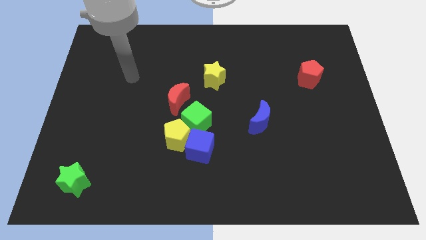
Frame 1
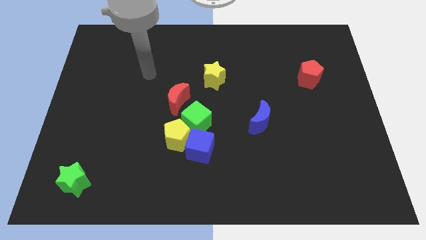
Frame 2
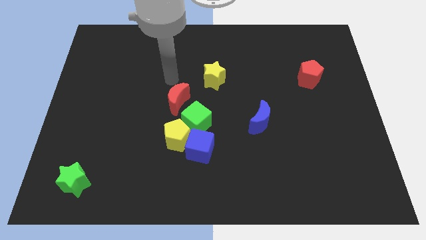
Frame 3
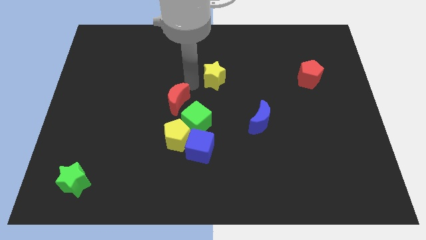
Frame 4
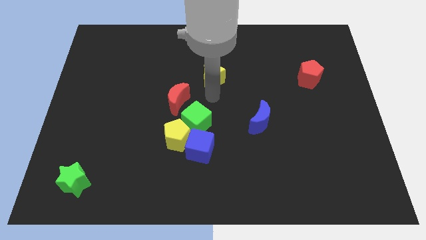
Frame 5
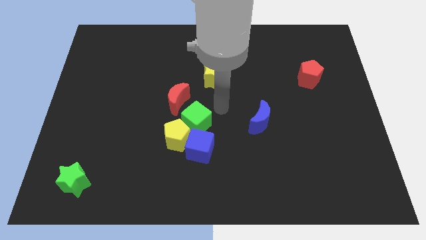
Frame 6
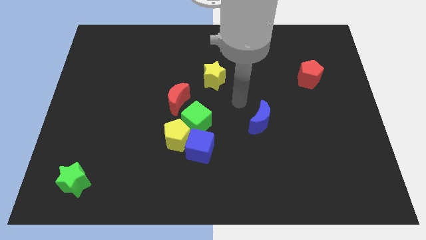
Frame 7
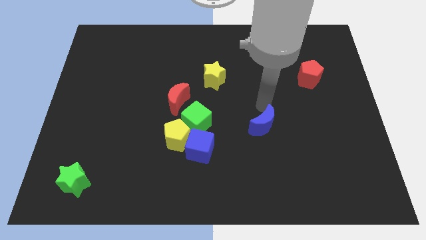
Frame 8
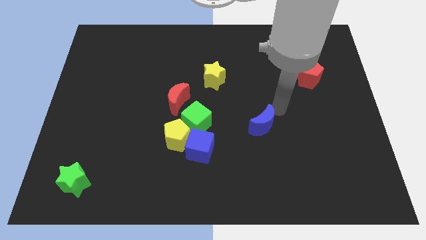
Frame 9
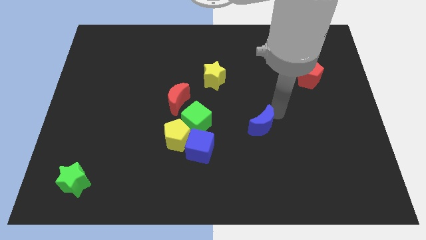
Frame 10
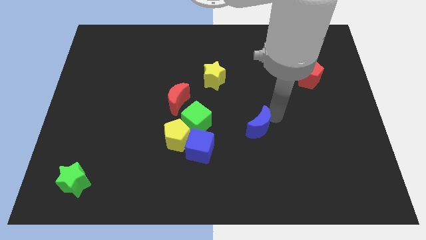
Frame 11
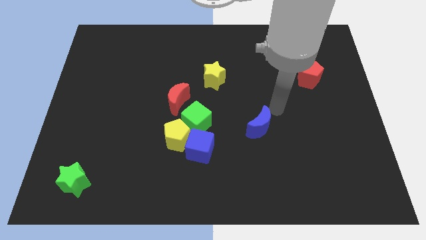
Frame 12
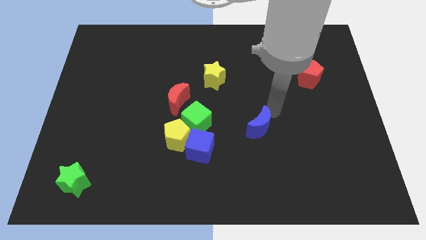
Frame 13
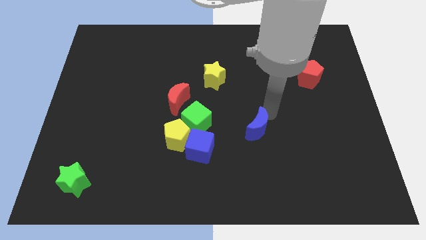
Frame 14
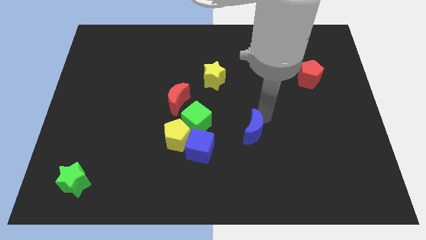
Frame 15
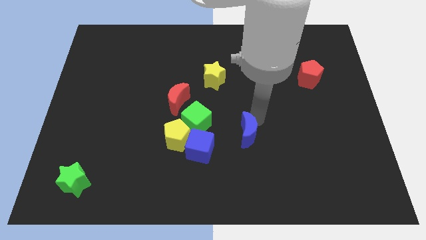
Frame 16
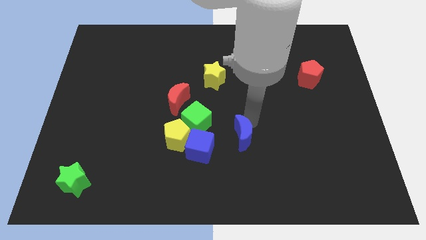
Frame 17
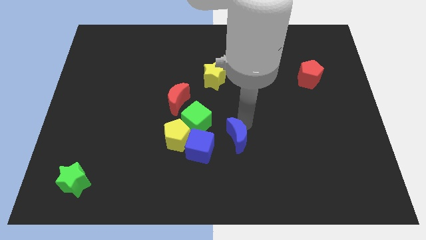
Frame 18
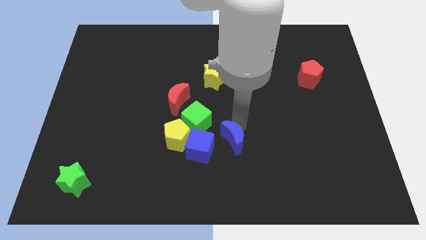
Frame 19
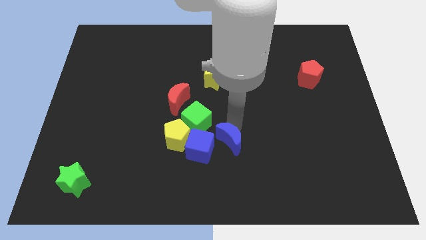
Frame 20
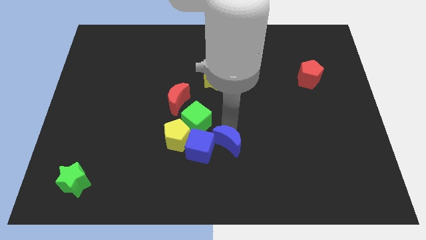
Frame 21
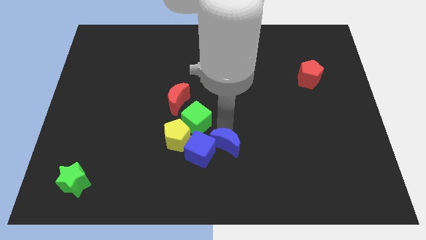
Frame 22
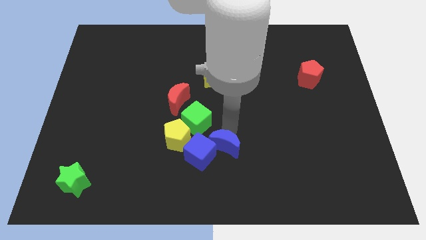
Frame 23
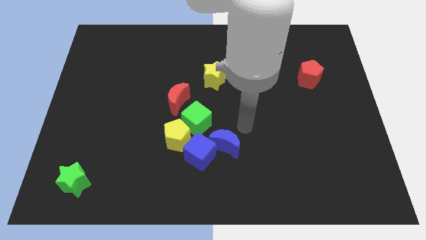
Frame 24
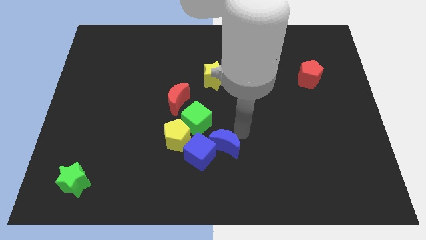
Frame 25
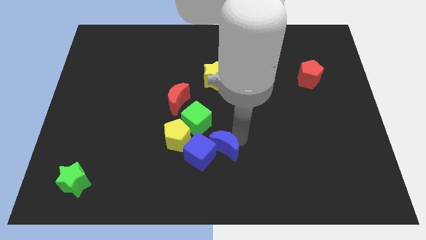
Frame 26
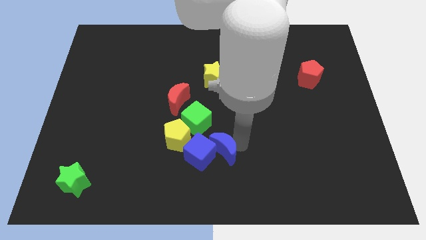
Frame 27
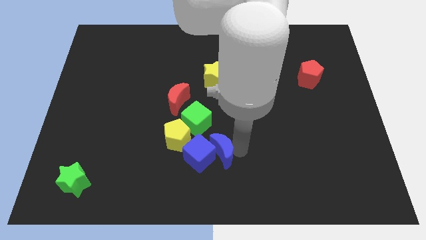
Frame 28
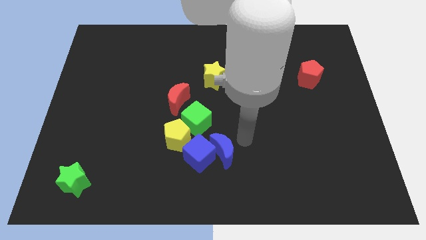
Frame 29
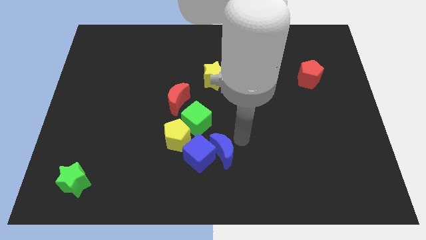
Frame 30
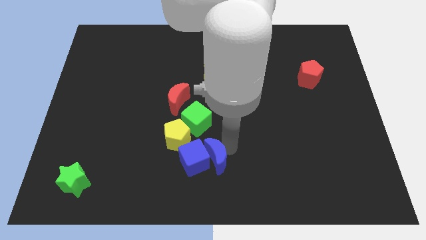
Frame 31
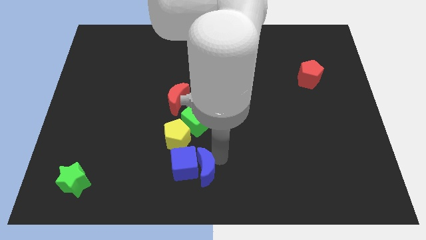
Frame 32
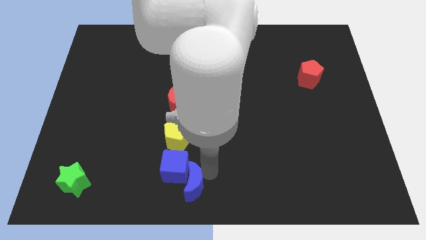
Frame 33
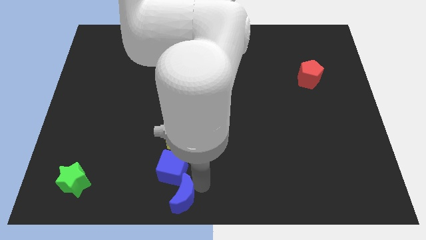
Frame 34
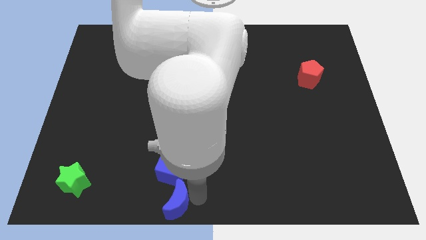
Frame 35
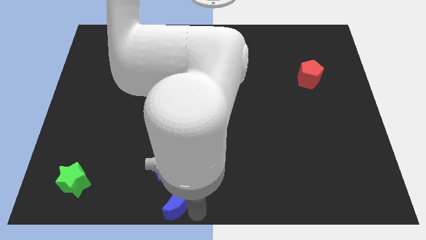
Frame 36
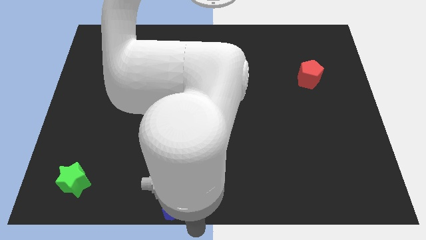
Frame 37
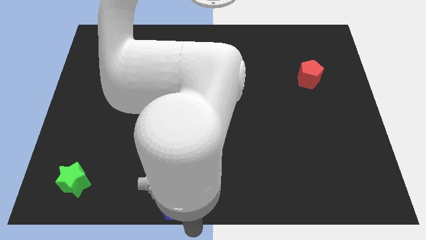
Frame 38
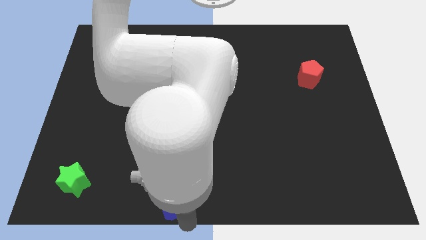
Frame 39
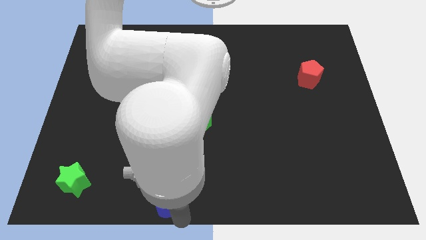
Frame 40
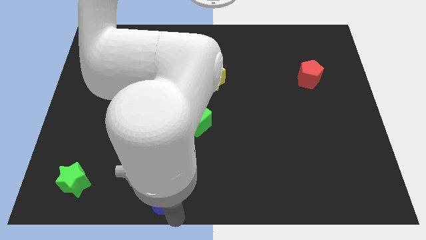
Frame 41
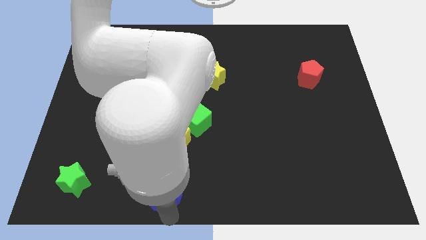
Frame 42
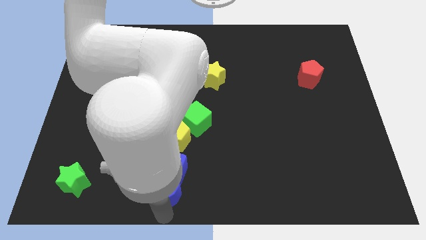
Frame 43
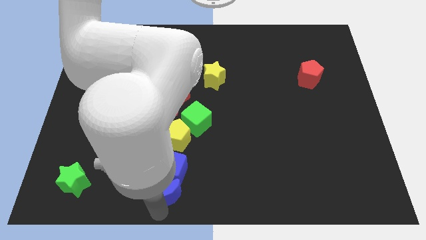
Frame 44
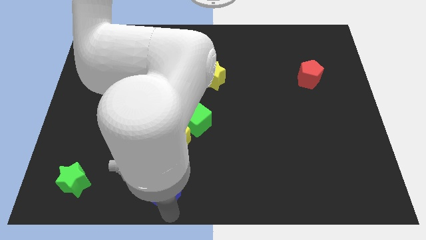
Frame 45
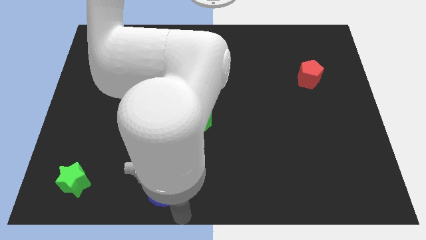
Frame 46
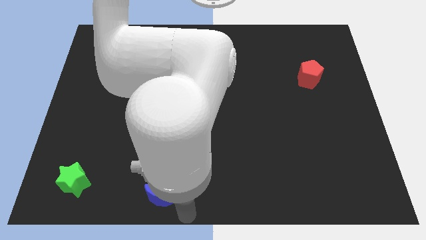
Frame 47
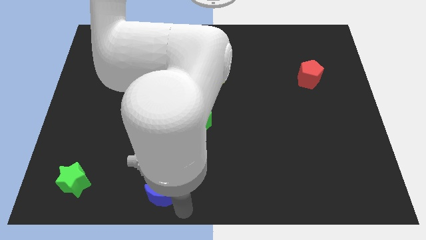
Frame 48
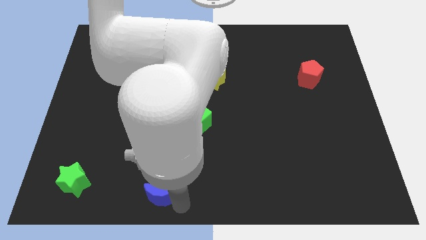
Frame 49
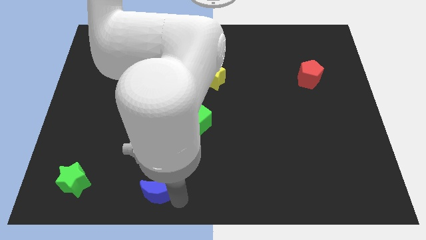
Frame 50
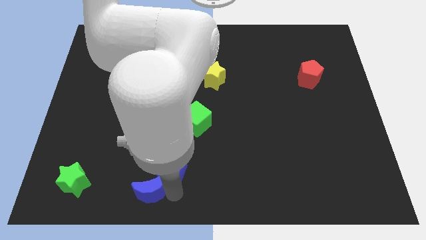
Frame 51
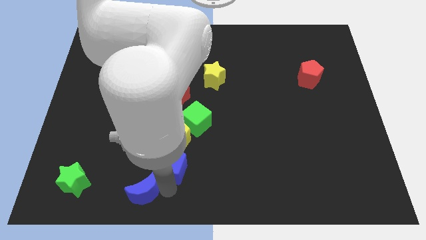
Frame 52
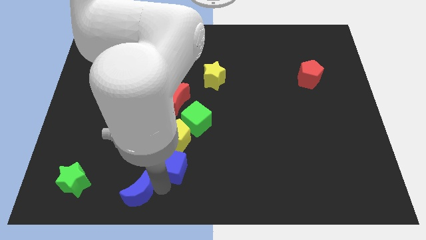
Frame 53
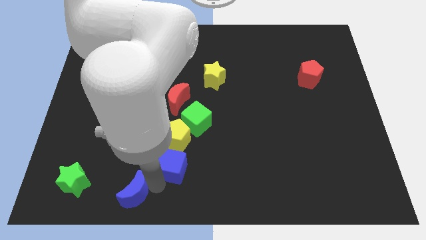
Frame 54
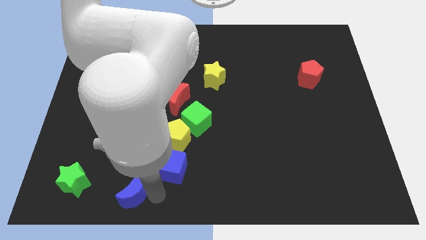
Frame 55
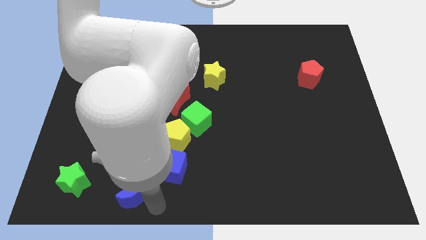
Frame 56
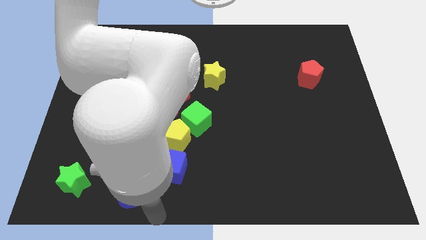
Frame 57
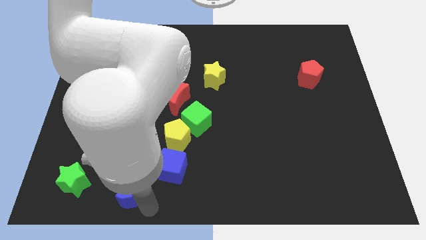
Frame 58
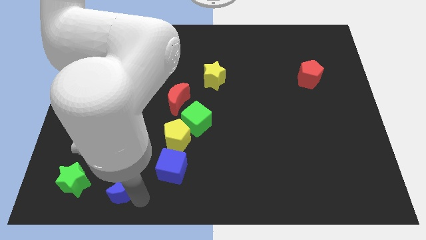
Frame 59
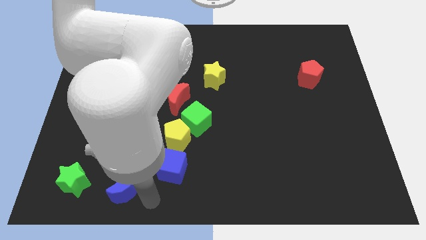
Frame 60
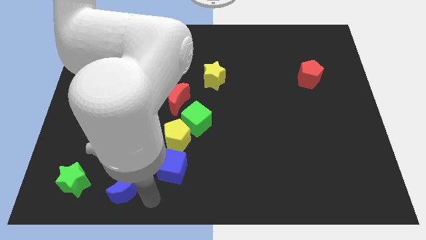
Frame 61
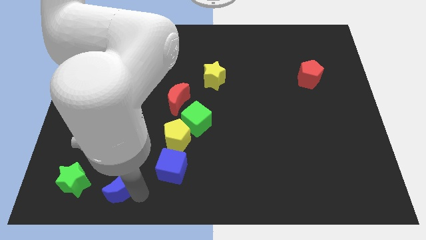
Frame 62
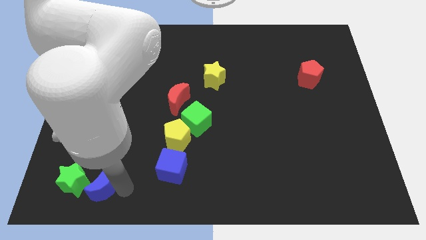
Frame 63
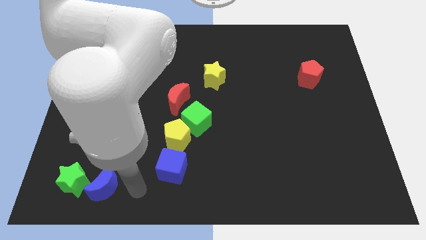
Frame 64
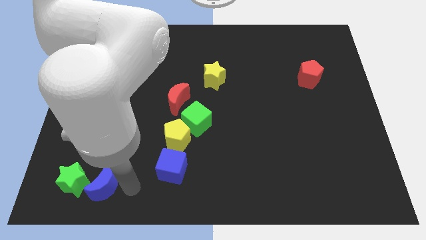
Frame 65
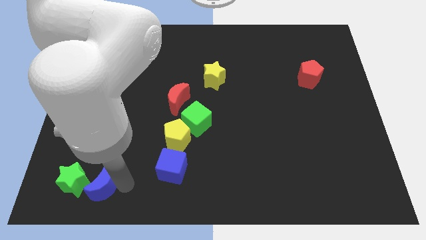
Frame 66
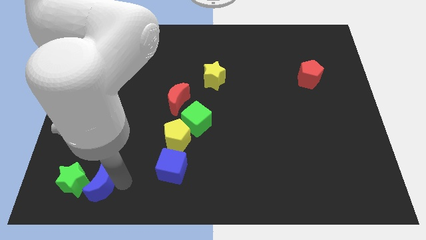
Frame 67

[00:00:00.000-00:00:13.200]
move the blue moon towards the green star

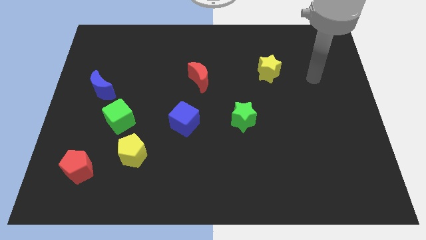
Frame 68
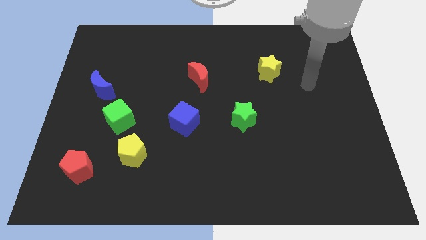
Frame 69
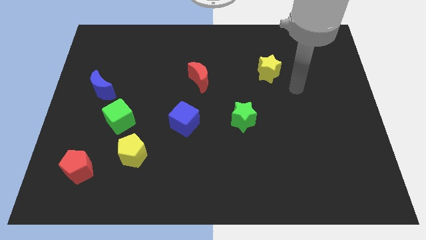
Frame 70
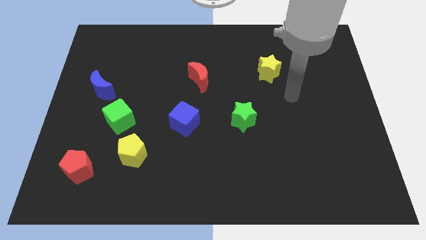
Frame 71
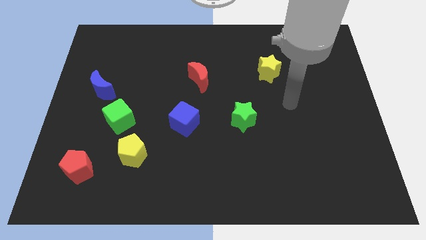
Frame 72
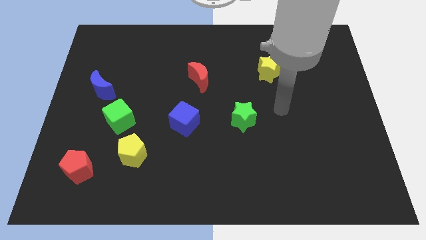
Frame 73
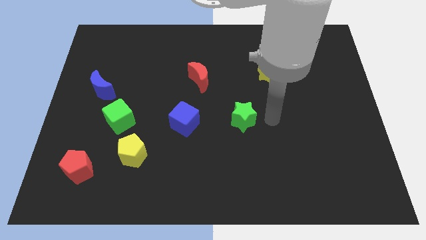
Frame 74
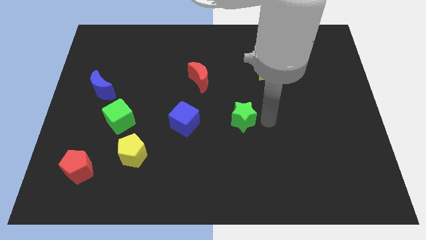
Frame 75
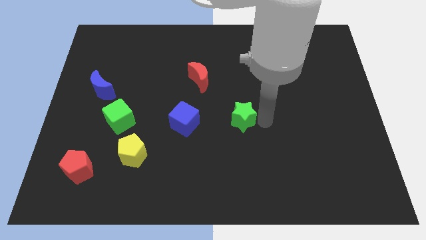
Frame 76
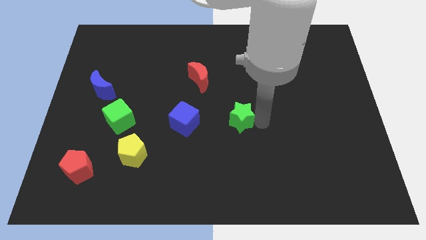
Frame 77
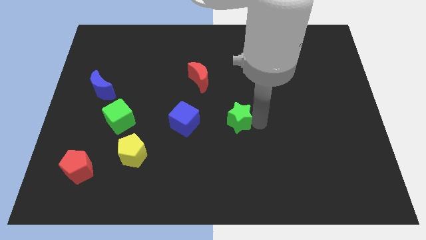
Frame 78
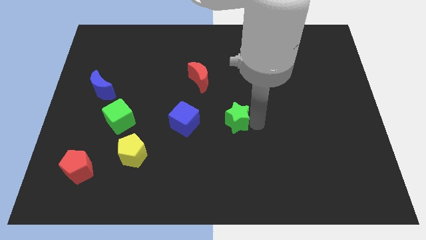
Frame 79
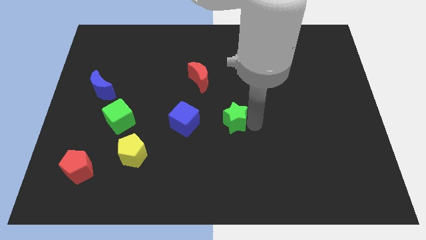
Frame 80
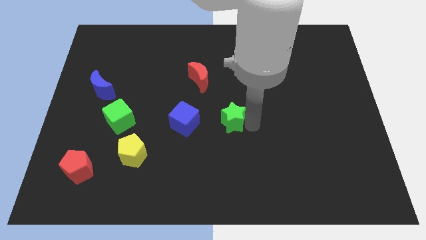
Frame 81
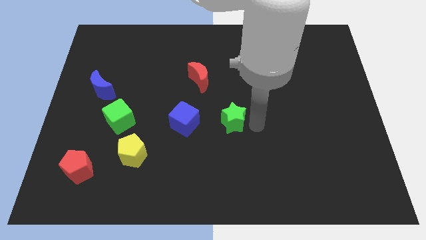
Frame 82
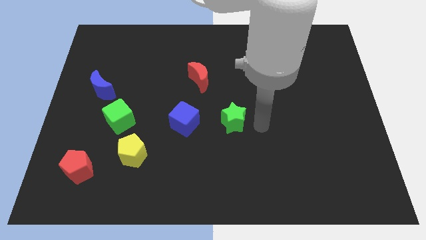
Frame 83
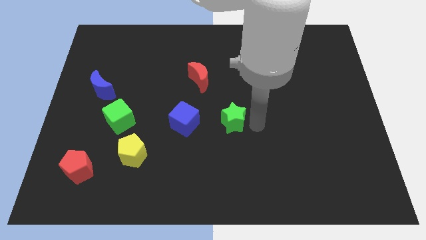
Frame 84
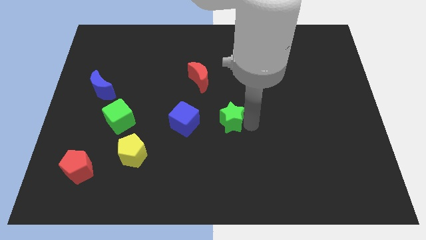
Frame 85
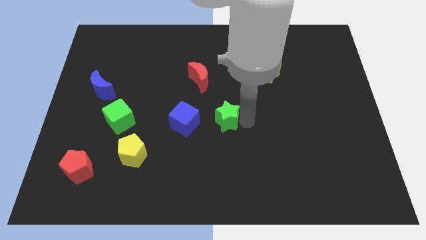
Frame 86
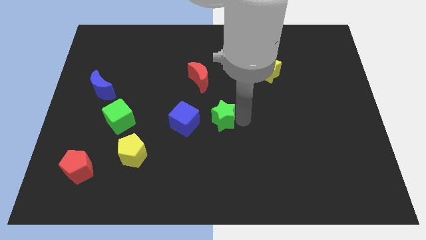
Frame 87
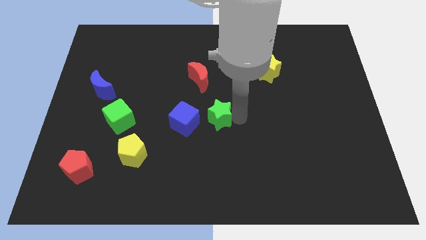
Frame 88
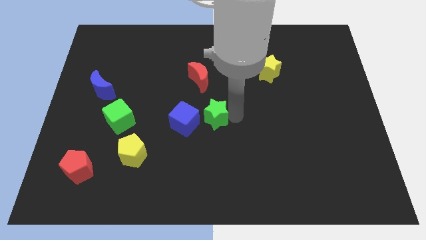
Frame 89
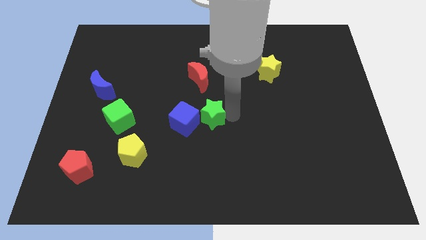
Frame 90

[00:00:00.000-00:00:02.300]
push the green star next to the blue cube
